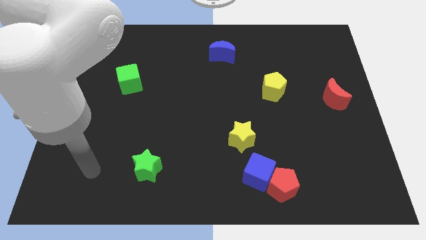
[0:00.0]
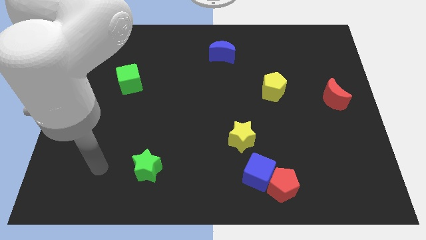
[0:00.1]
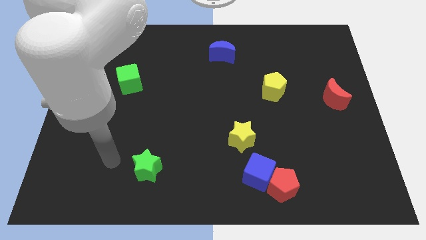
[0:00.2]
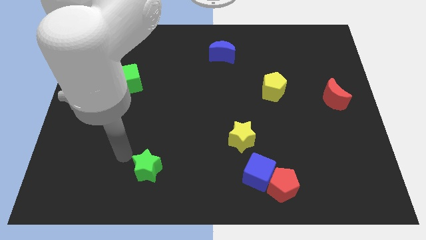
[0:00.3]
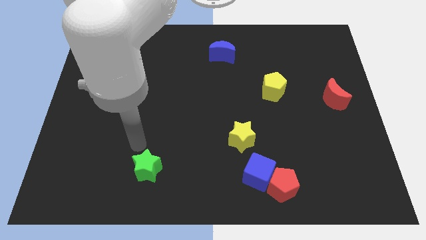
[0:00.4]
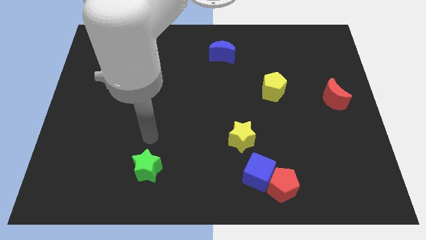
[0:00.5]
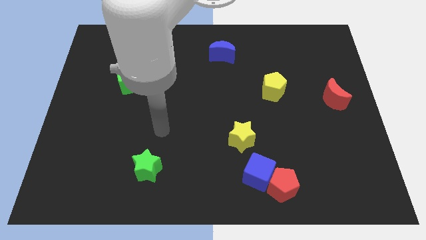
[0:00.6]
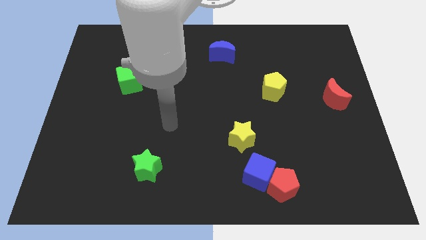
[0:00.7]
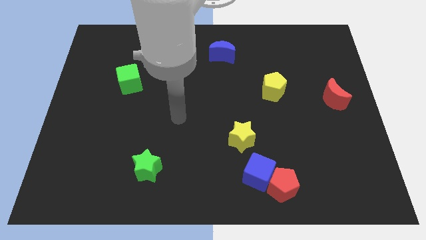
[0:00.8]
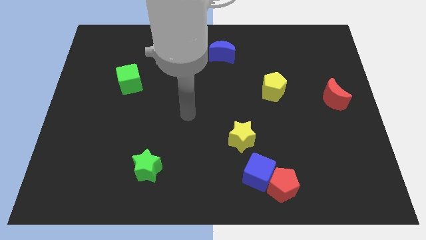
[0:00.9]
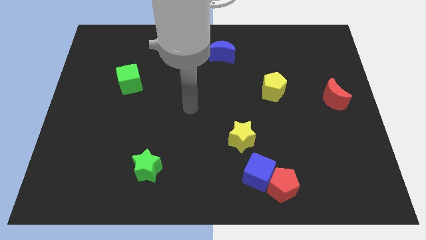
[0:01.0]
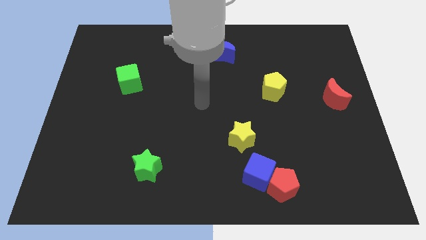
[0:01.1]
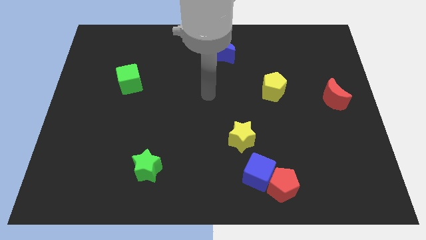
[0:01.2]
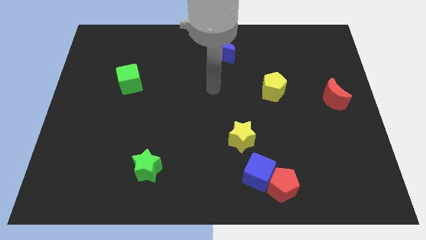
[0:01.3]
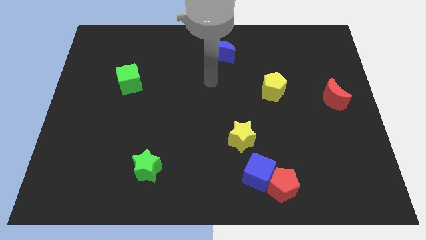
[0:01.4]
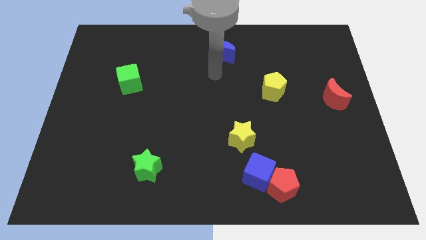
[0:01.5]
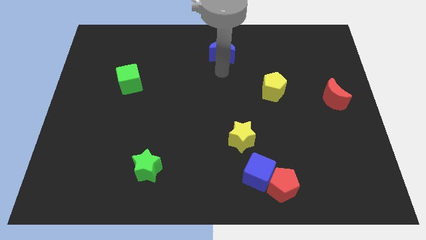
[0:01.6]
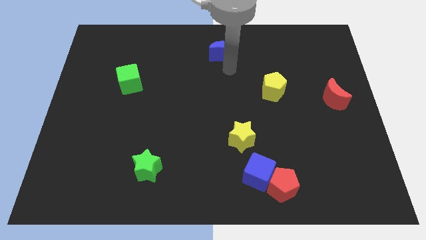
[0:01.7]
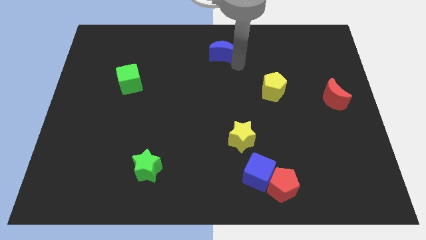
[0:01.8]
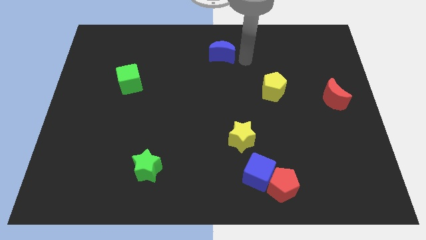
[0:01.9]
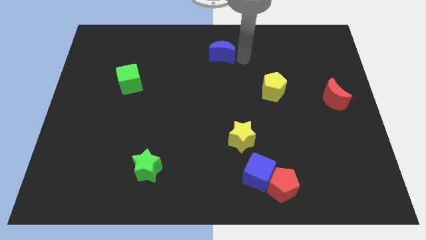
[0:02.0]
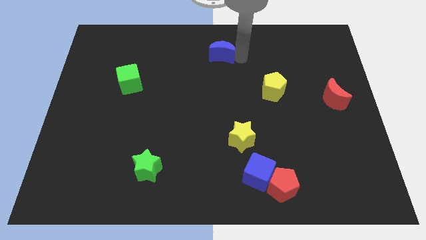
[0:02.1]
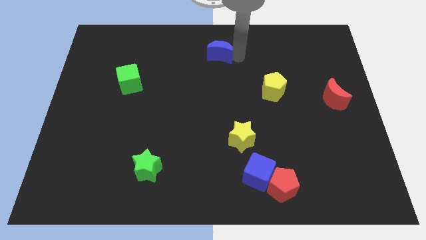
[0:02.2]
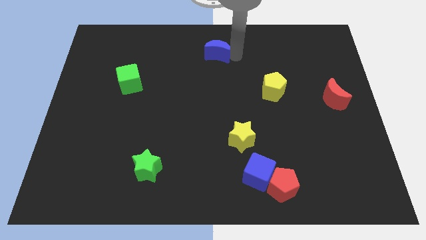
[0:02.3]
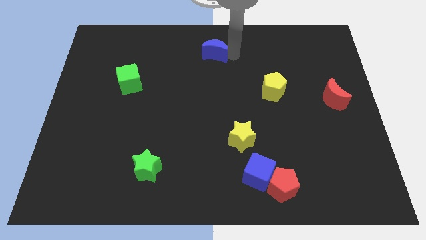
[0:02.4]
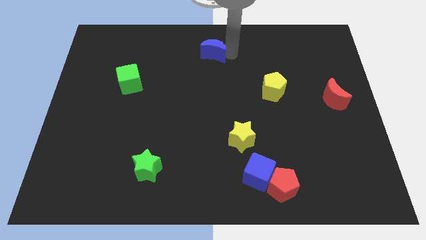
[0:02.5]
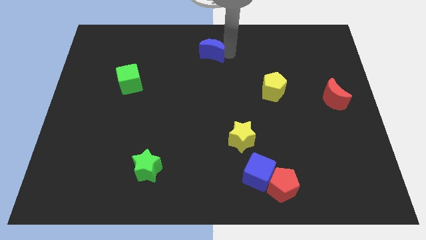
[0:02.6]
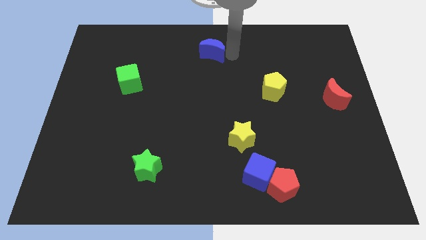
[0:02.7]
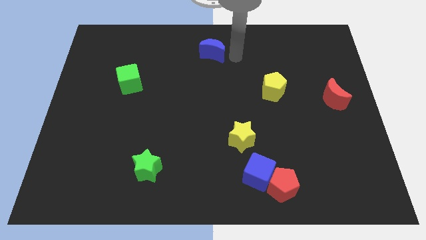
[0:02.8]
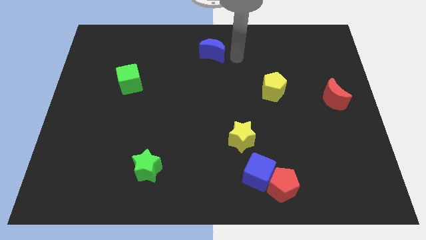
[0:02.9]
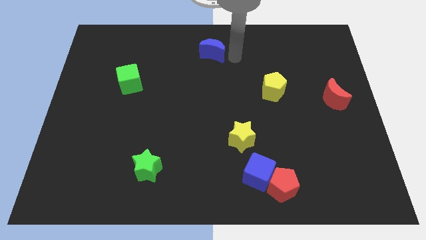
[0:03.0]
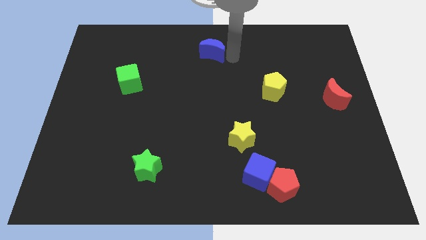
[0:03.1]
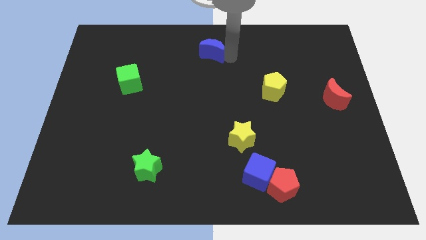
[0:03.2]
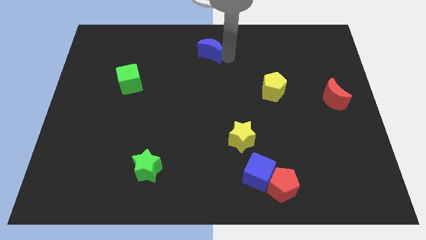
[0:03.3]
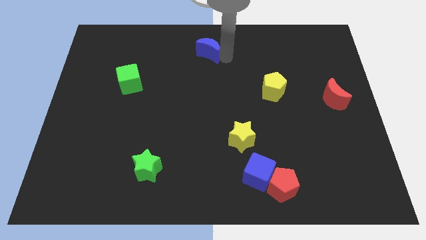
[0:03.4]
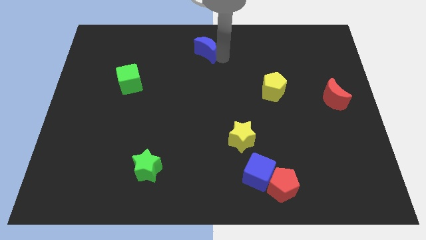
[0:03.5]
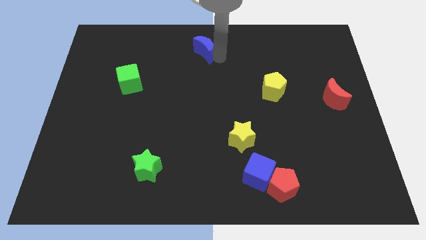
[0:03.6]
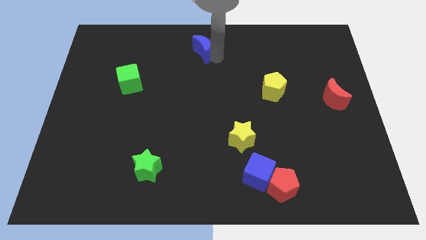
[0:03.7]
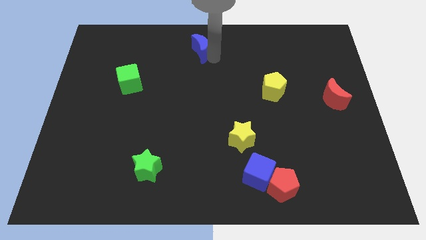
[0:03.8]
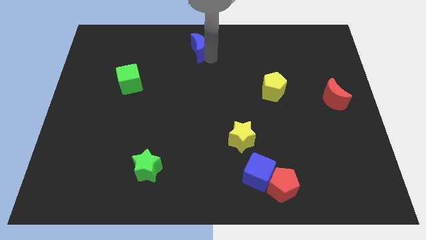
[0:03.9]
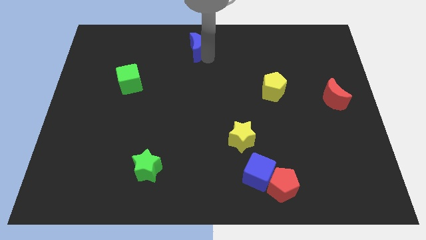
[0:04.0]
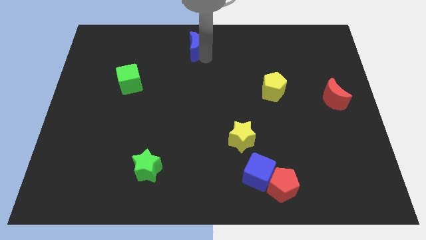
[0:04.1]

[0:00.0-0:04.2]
slightly push the blue moon left

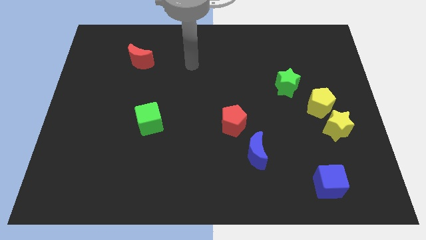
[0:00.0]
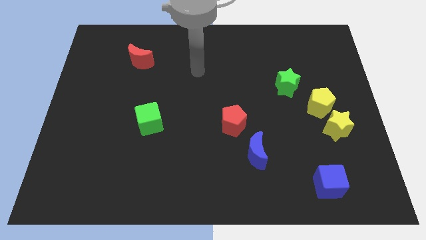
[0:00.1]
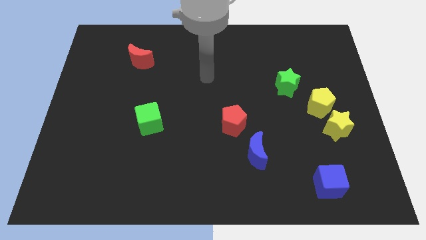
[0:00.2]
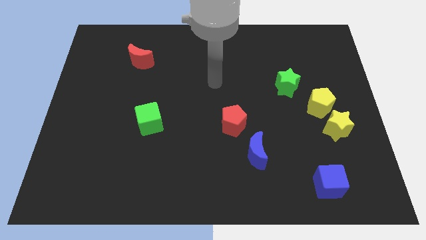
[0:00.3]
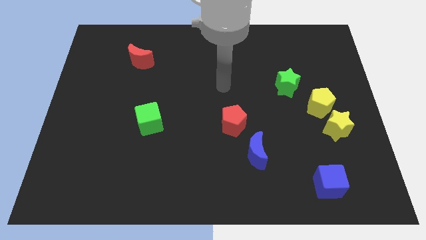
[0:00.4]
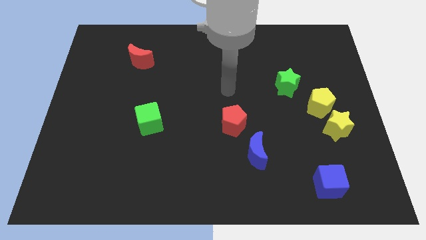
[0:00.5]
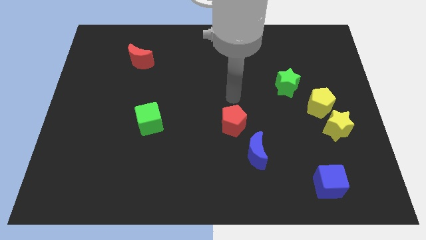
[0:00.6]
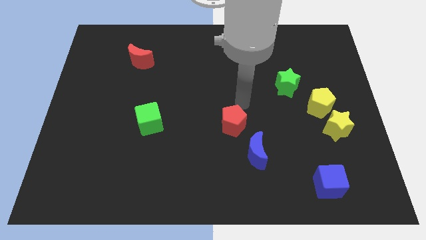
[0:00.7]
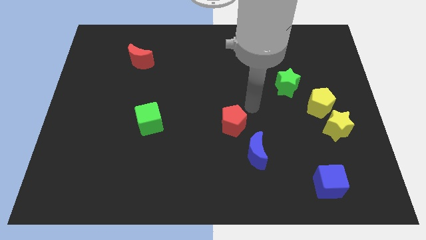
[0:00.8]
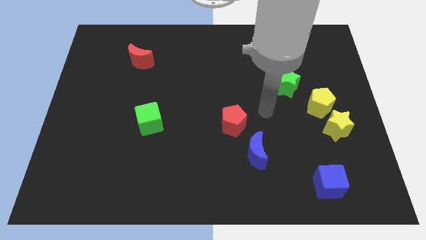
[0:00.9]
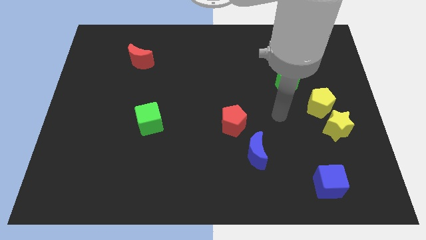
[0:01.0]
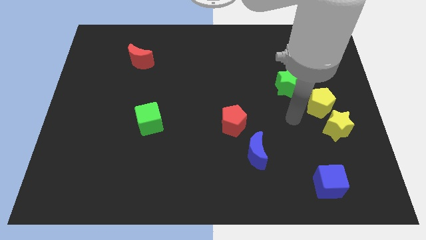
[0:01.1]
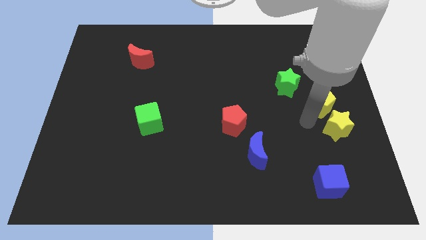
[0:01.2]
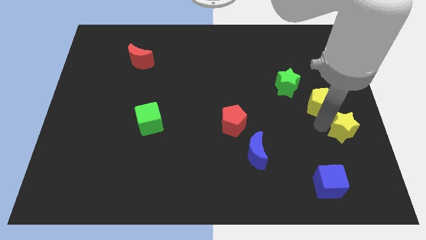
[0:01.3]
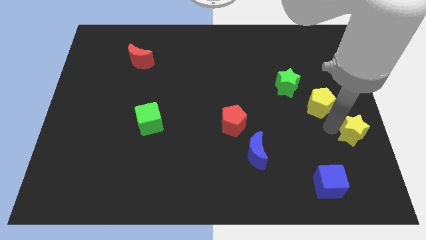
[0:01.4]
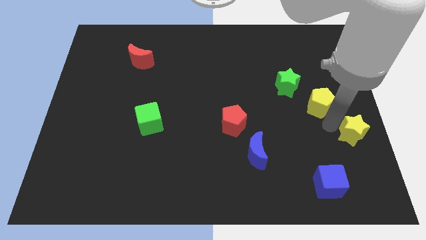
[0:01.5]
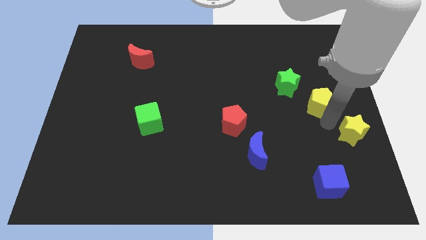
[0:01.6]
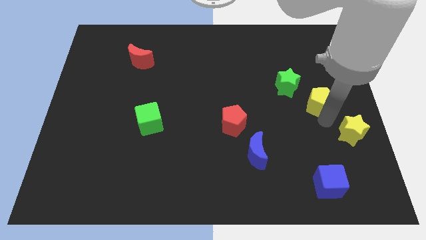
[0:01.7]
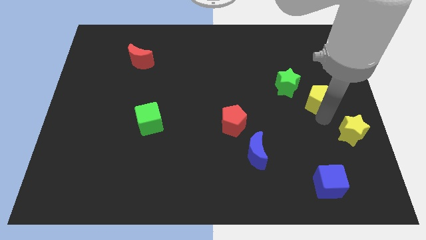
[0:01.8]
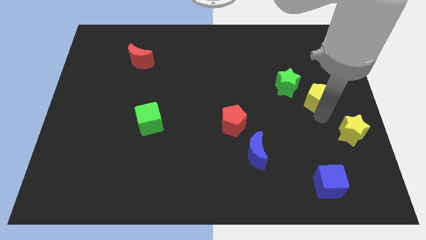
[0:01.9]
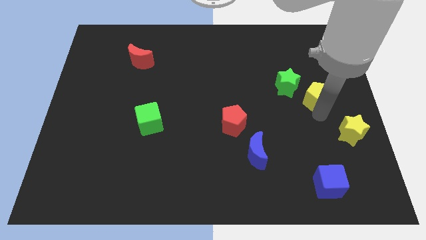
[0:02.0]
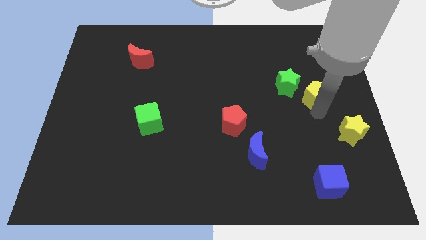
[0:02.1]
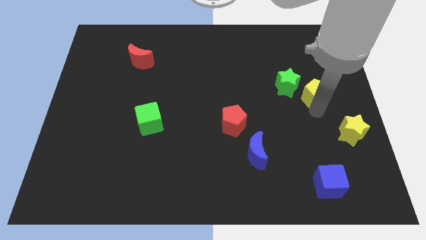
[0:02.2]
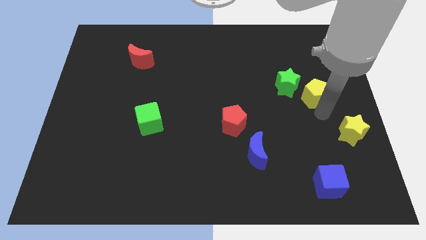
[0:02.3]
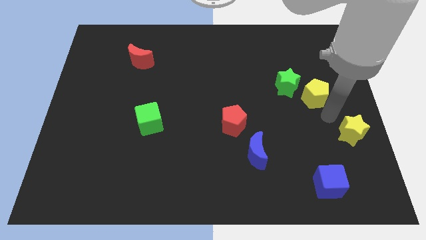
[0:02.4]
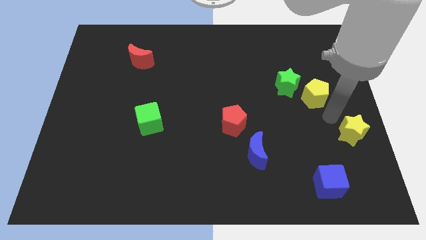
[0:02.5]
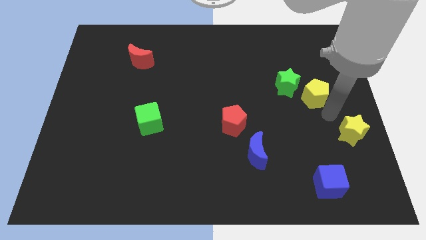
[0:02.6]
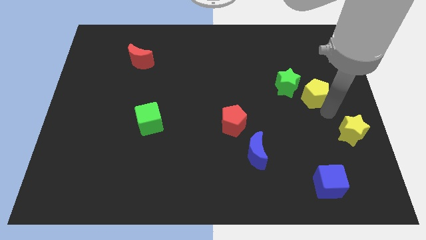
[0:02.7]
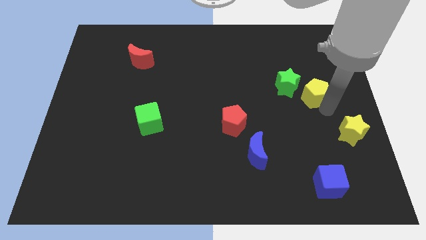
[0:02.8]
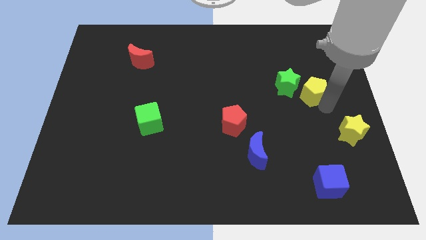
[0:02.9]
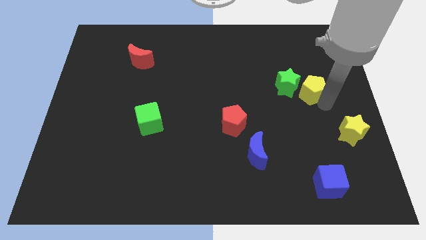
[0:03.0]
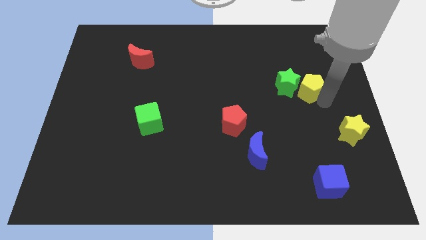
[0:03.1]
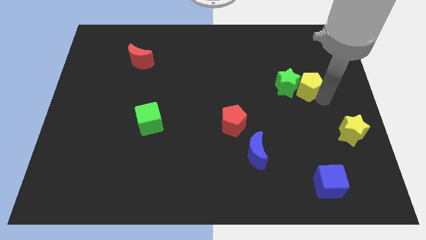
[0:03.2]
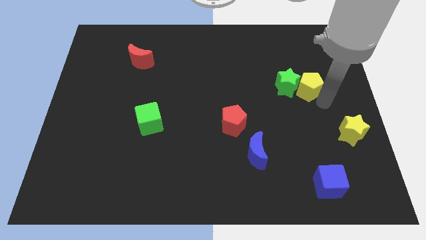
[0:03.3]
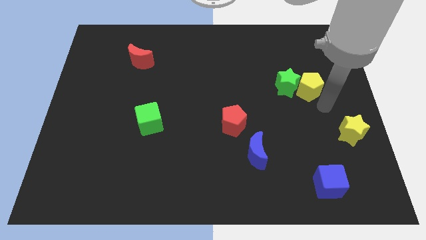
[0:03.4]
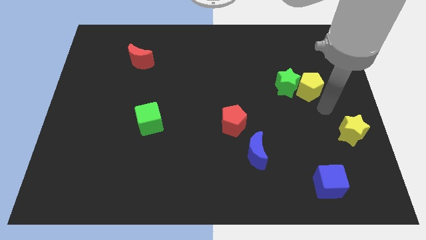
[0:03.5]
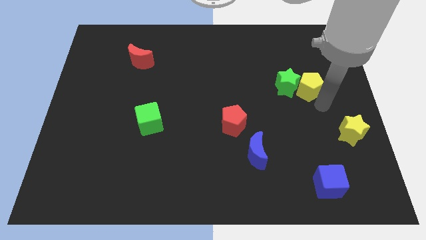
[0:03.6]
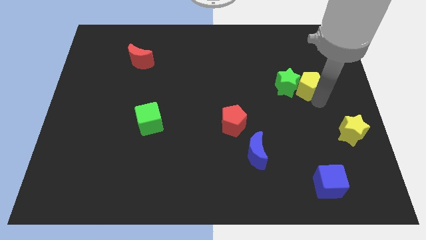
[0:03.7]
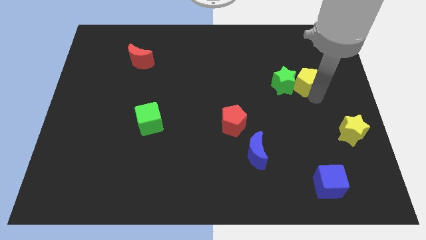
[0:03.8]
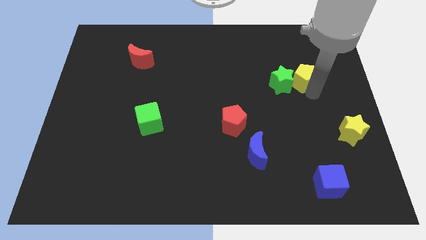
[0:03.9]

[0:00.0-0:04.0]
slightly push the yellow pentagon upwards and to the left diagonally
